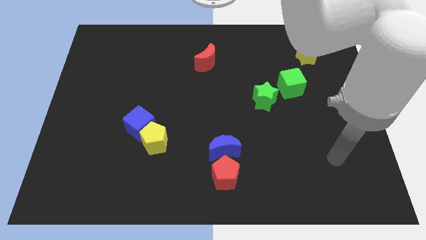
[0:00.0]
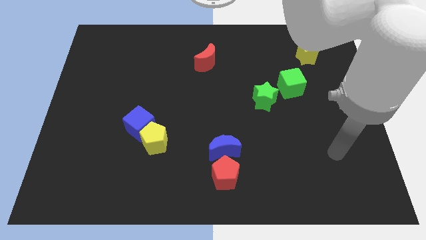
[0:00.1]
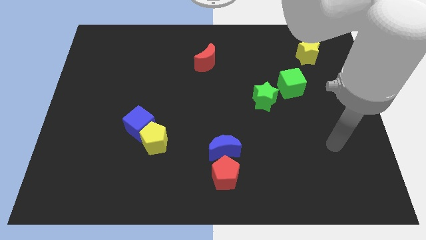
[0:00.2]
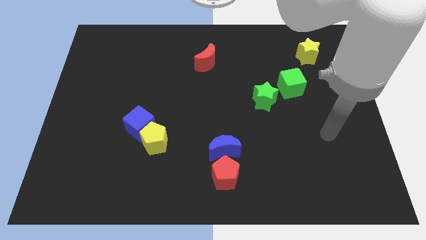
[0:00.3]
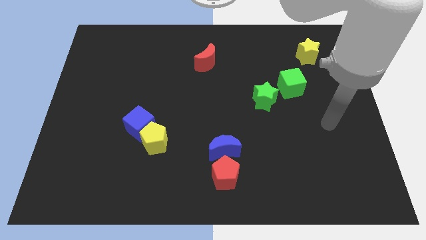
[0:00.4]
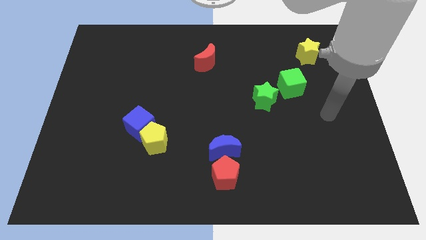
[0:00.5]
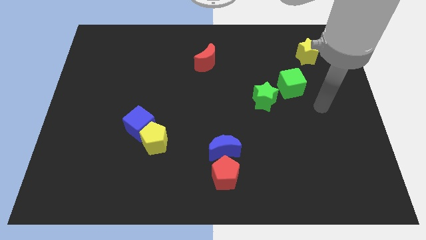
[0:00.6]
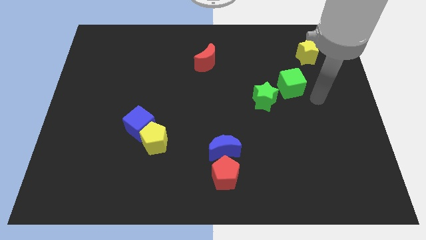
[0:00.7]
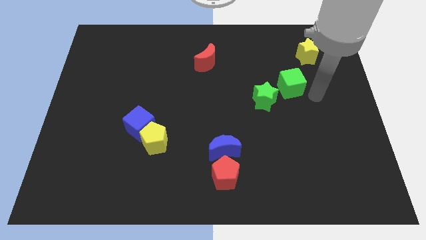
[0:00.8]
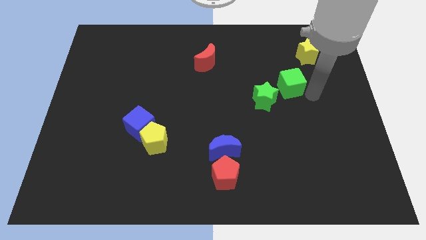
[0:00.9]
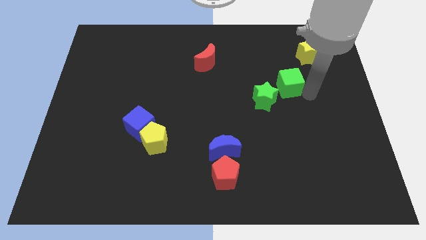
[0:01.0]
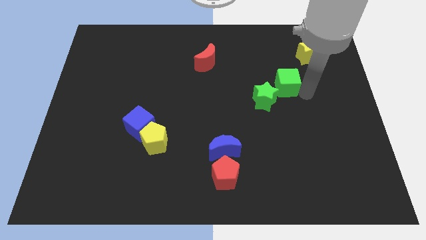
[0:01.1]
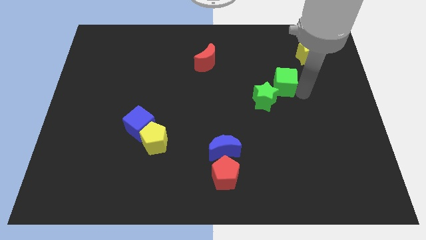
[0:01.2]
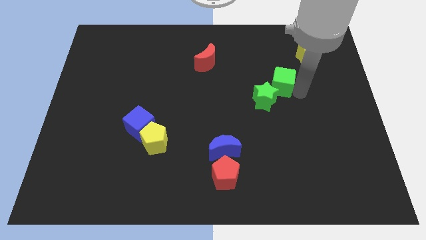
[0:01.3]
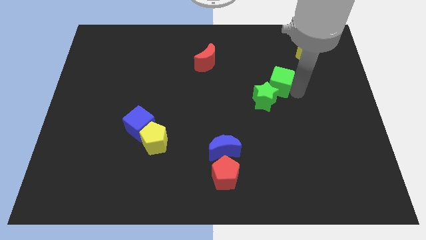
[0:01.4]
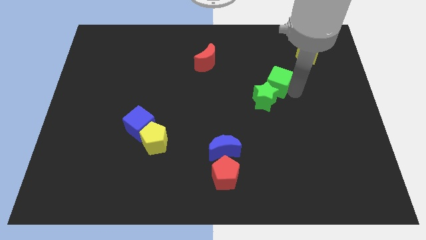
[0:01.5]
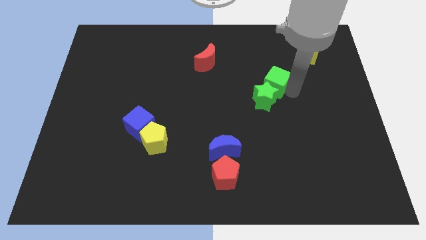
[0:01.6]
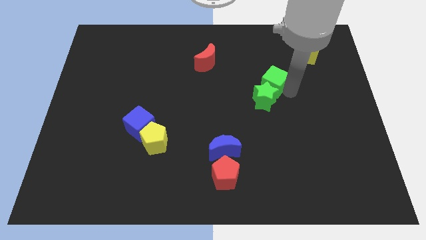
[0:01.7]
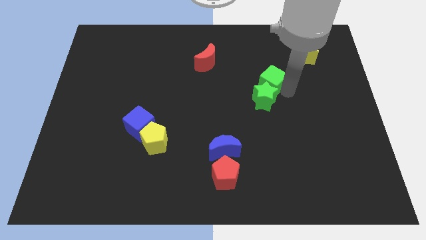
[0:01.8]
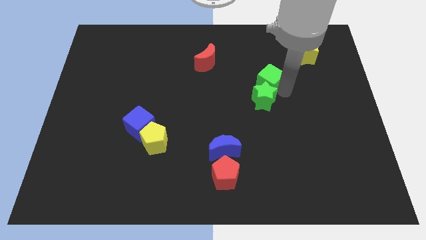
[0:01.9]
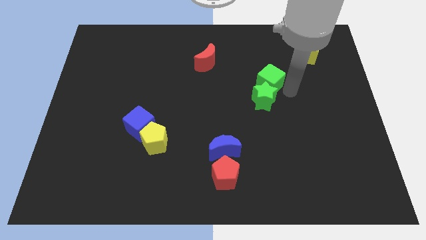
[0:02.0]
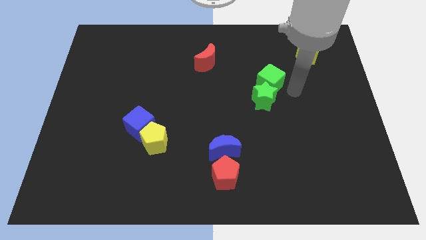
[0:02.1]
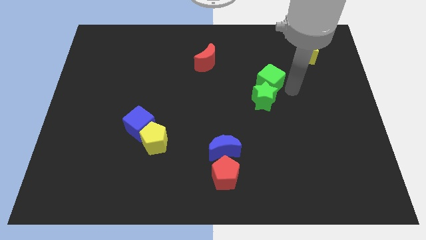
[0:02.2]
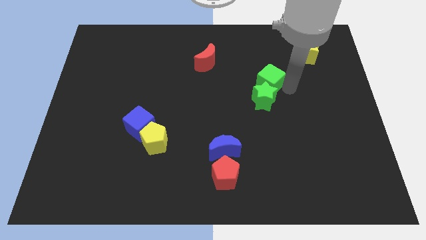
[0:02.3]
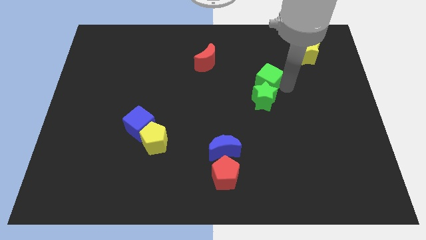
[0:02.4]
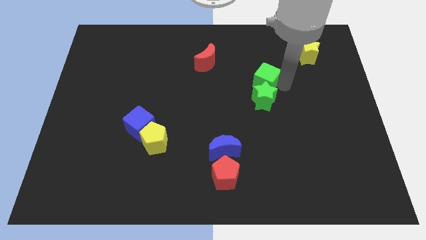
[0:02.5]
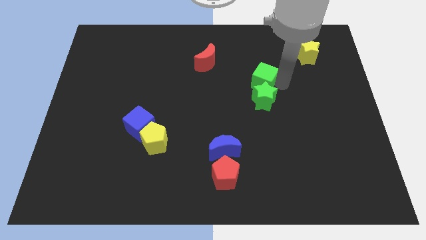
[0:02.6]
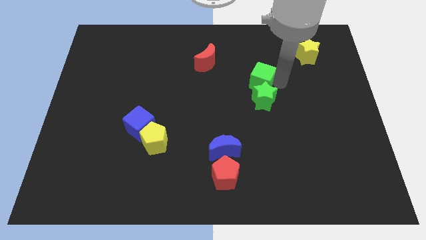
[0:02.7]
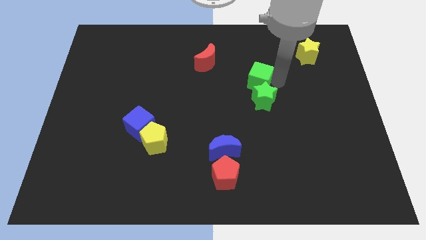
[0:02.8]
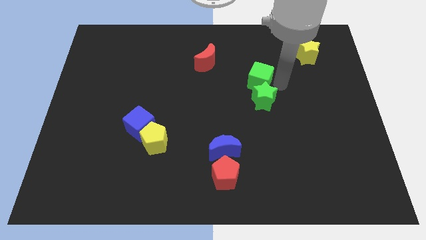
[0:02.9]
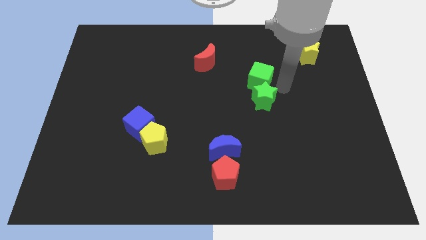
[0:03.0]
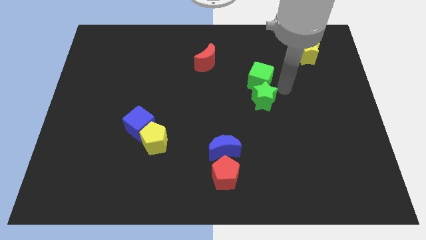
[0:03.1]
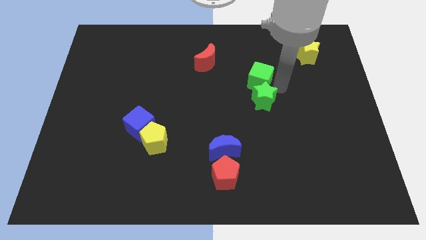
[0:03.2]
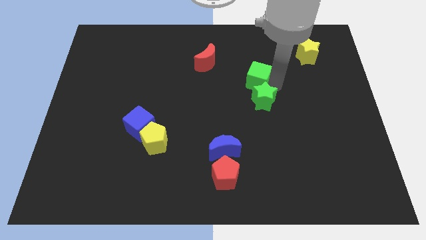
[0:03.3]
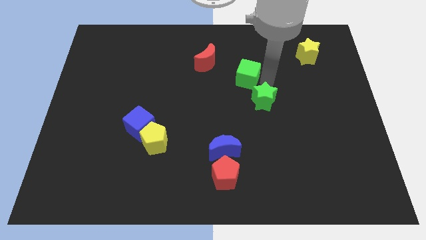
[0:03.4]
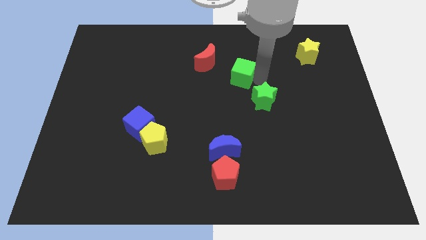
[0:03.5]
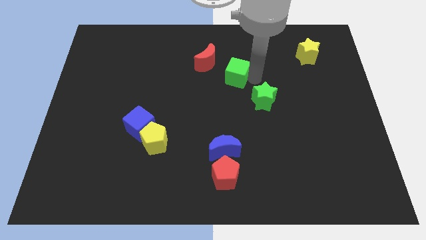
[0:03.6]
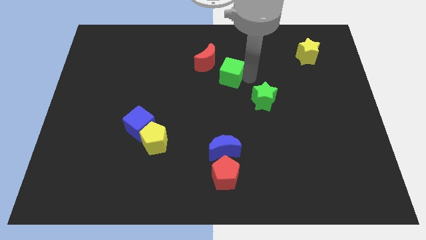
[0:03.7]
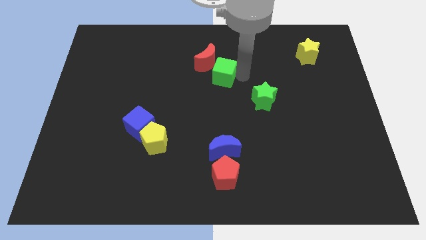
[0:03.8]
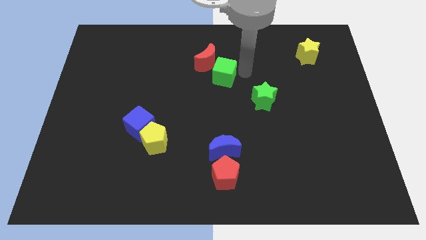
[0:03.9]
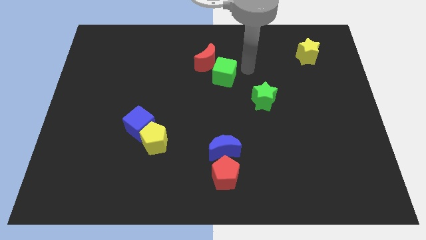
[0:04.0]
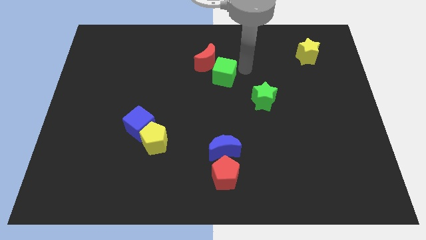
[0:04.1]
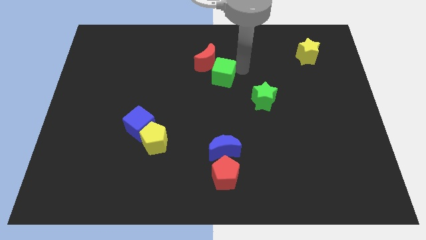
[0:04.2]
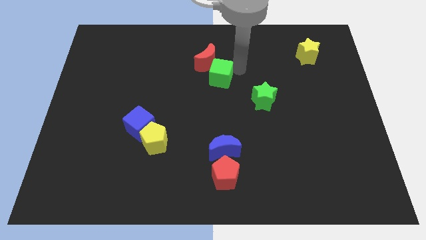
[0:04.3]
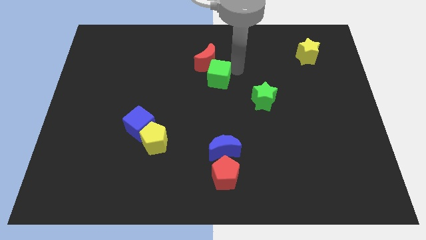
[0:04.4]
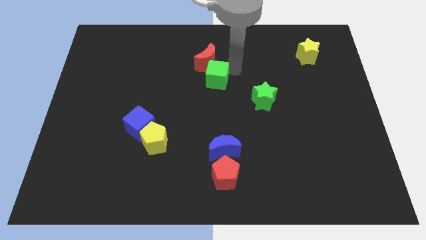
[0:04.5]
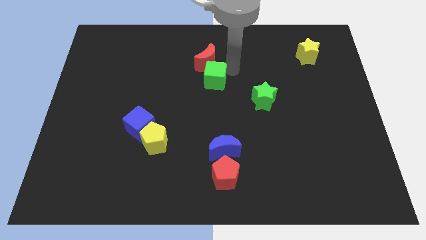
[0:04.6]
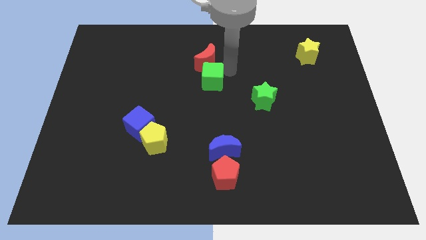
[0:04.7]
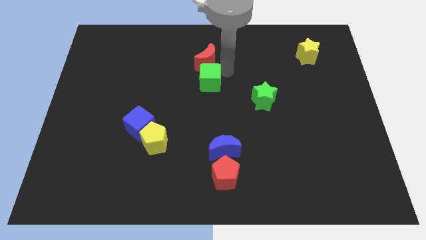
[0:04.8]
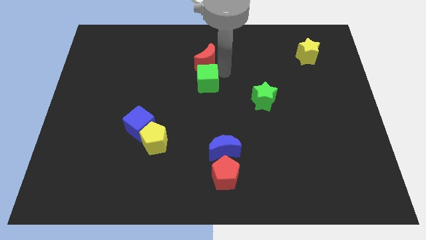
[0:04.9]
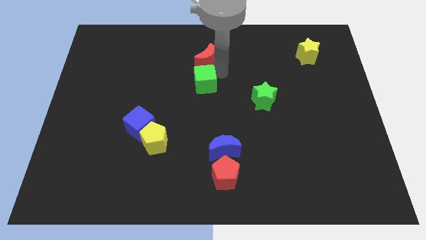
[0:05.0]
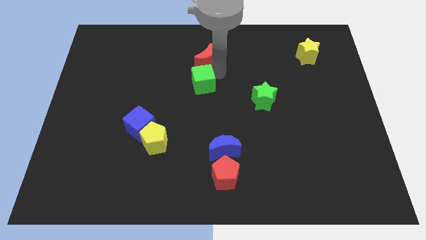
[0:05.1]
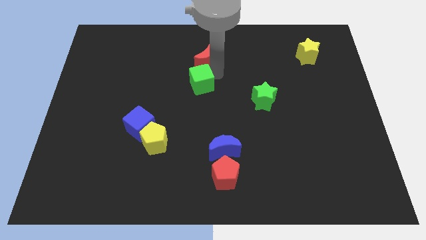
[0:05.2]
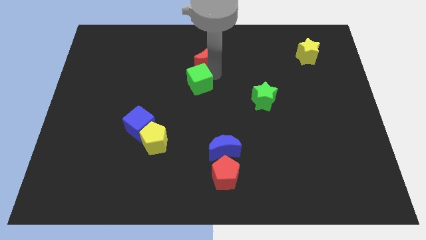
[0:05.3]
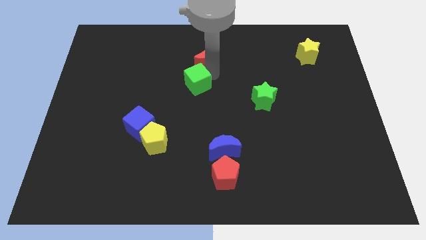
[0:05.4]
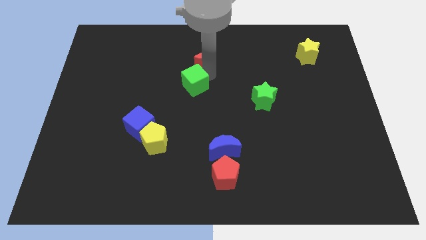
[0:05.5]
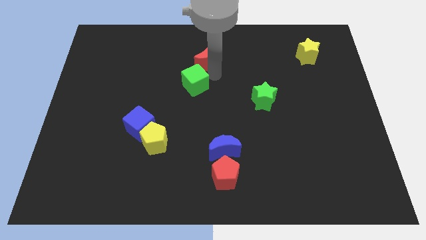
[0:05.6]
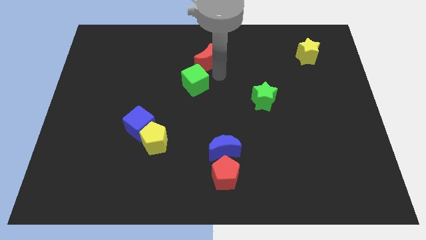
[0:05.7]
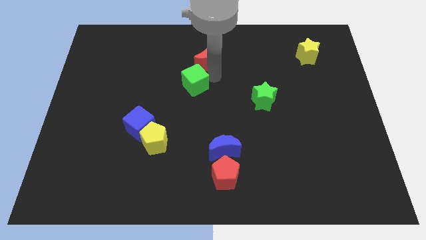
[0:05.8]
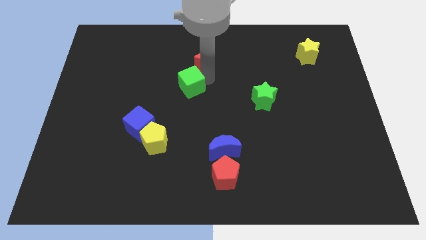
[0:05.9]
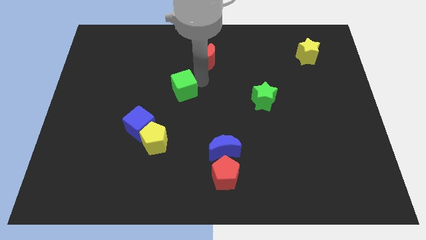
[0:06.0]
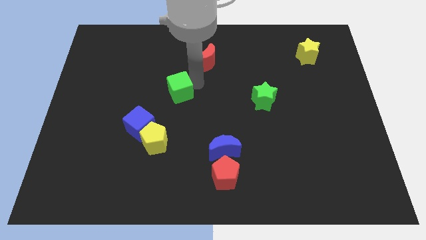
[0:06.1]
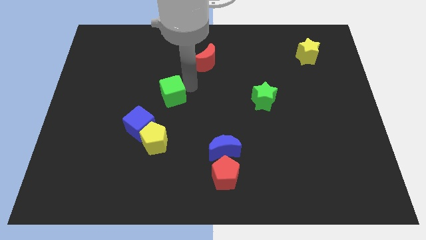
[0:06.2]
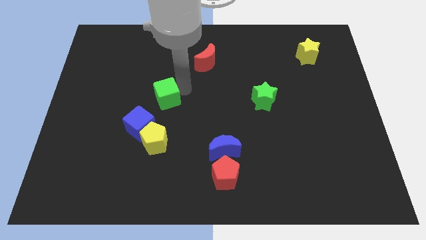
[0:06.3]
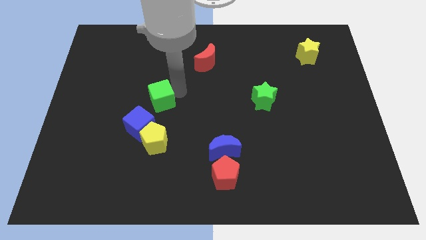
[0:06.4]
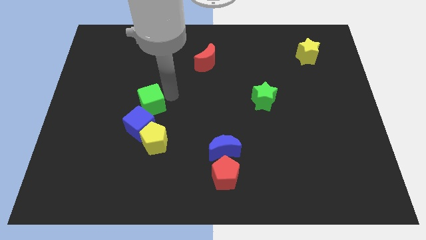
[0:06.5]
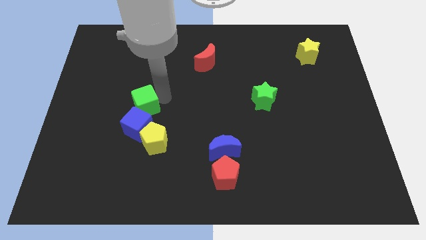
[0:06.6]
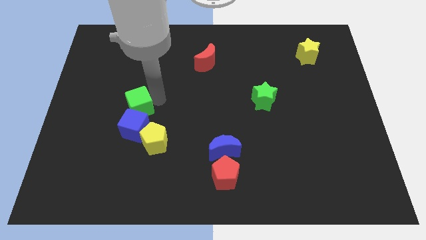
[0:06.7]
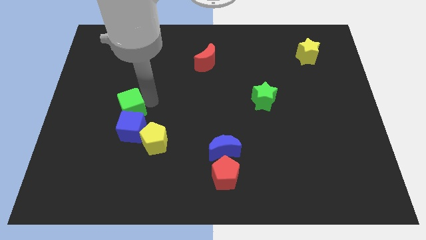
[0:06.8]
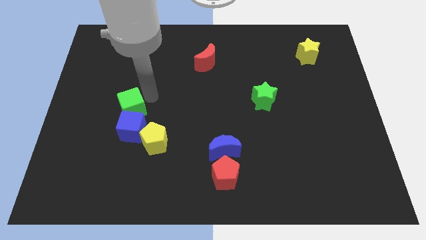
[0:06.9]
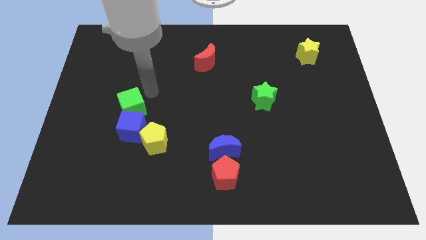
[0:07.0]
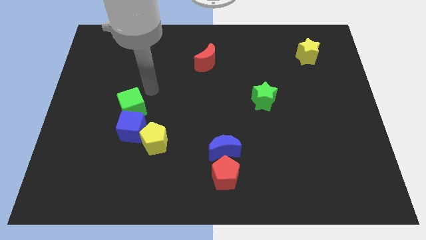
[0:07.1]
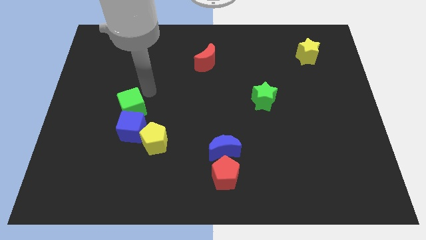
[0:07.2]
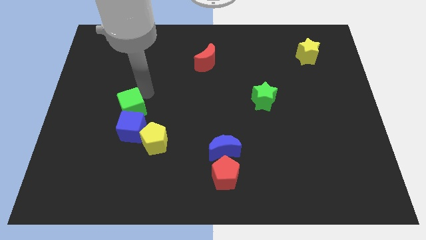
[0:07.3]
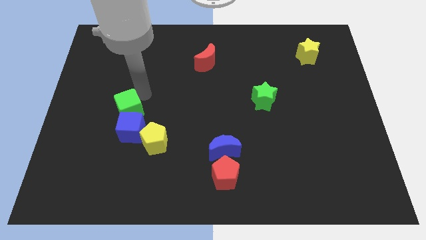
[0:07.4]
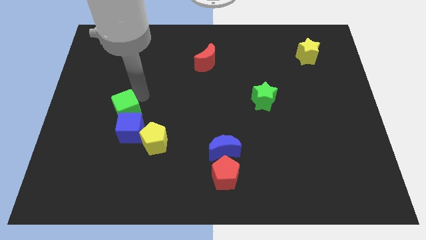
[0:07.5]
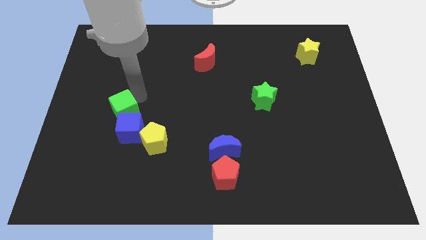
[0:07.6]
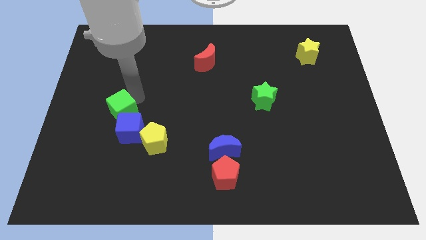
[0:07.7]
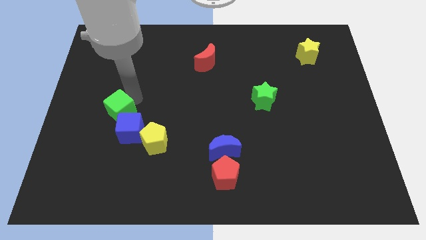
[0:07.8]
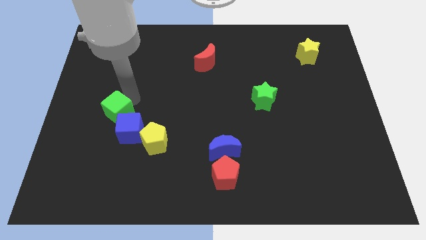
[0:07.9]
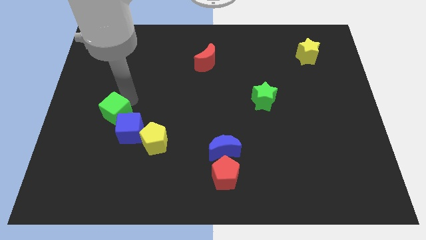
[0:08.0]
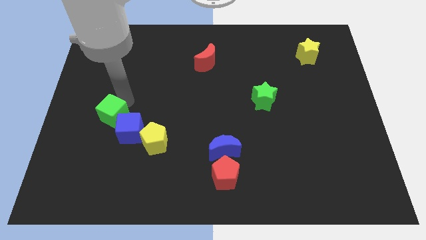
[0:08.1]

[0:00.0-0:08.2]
slide the green cube to the left of the blue cube
